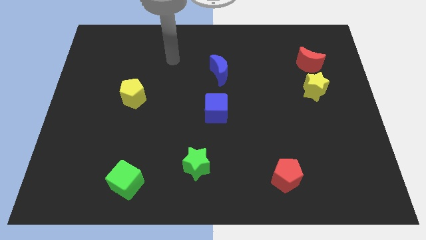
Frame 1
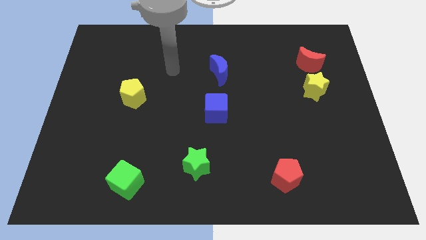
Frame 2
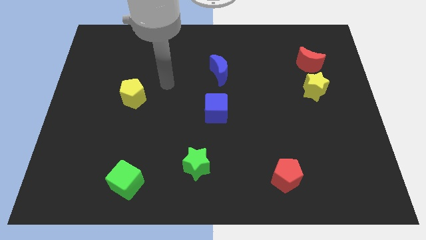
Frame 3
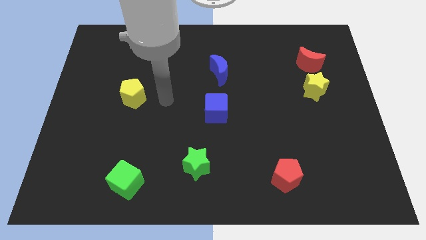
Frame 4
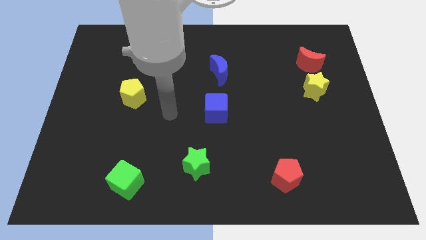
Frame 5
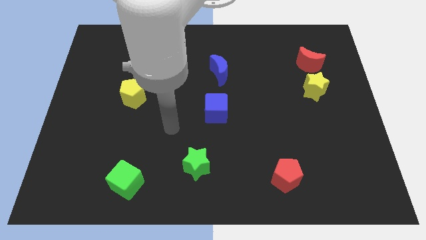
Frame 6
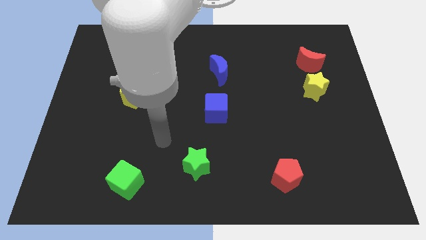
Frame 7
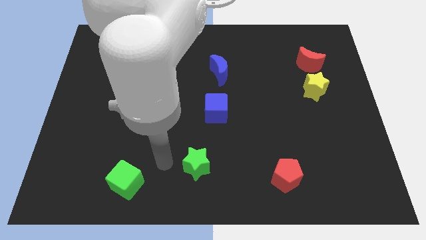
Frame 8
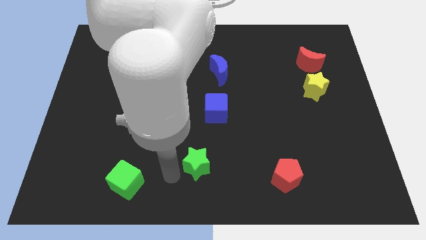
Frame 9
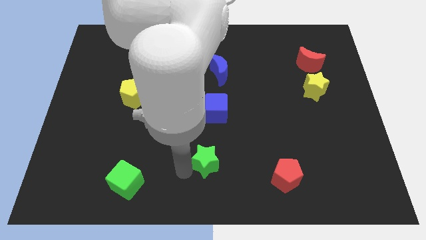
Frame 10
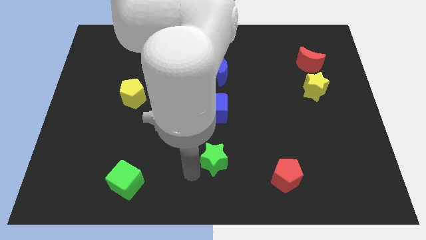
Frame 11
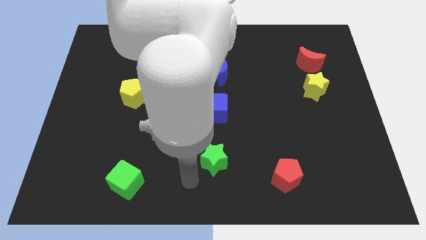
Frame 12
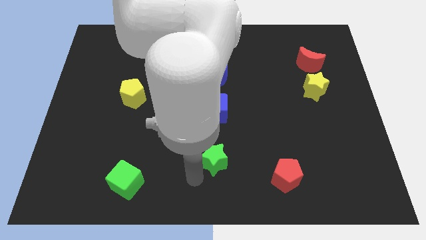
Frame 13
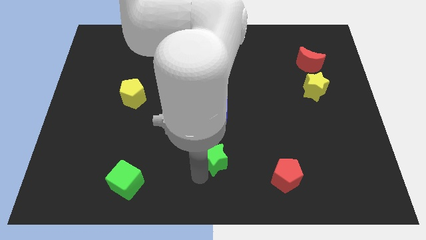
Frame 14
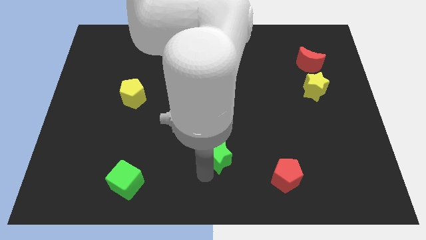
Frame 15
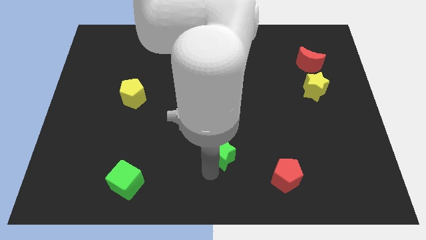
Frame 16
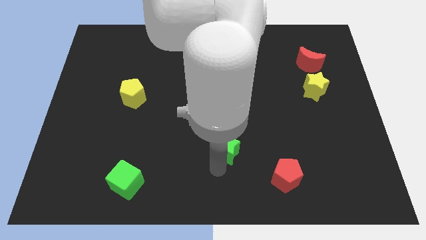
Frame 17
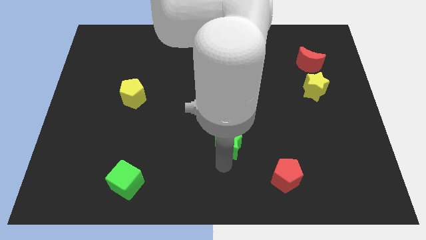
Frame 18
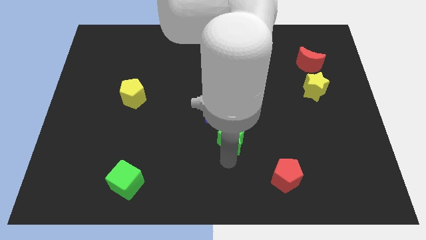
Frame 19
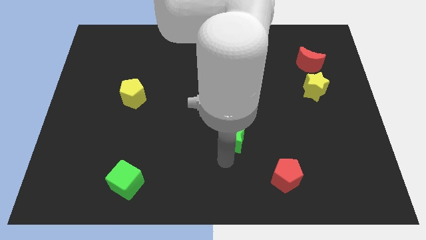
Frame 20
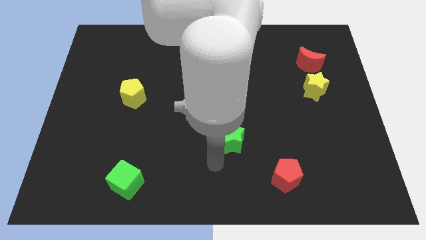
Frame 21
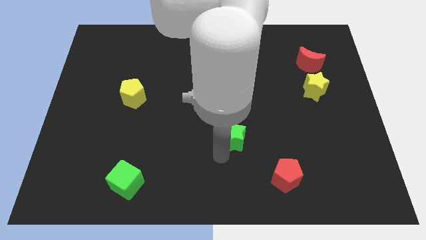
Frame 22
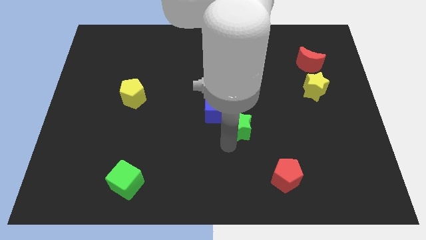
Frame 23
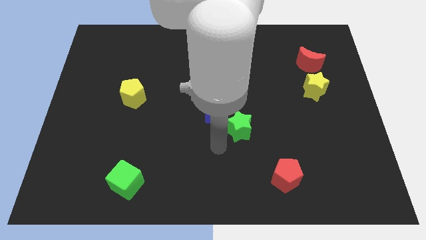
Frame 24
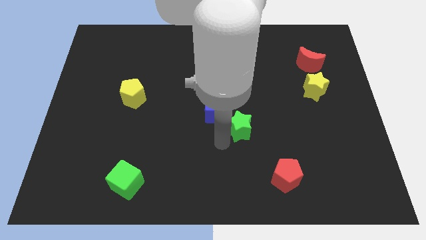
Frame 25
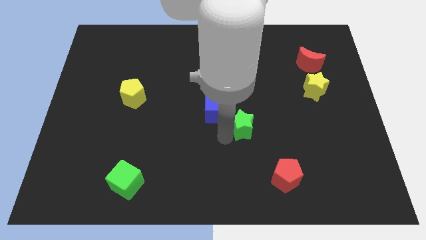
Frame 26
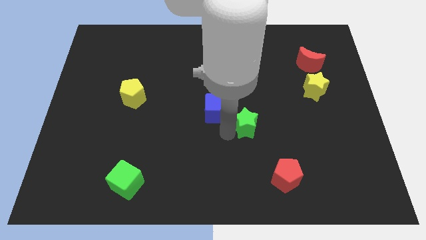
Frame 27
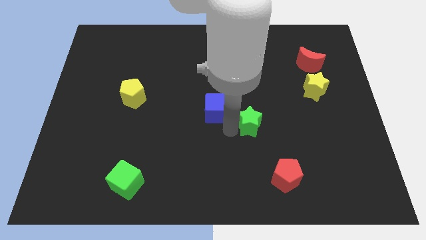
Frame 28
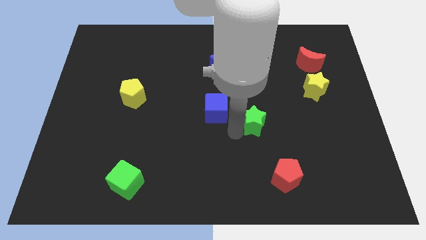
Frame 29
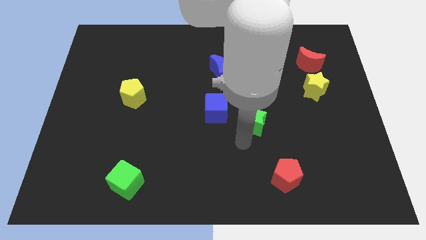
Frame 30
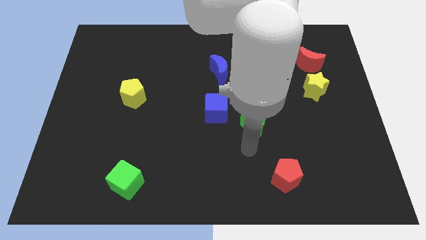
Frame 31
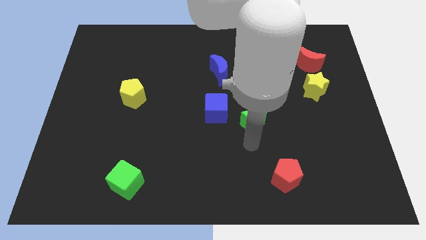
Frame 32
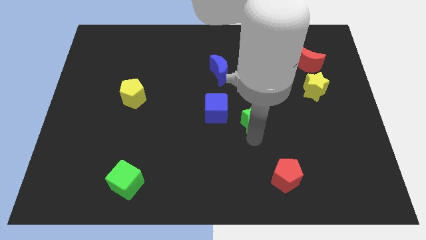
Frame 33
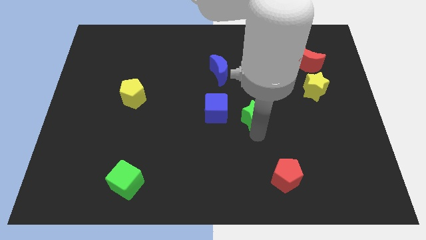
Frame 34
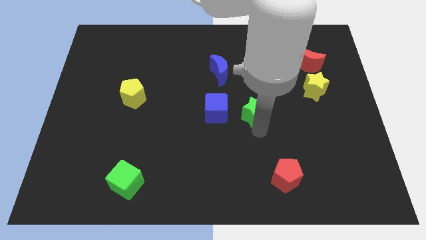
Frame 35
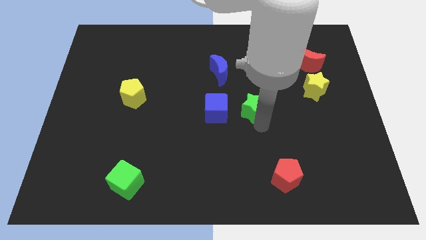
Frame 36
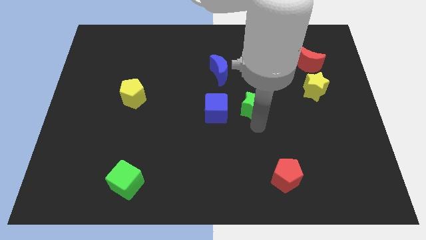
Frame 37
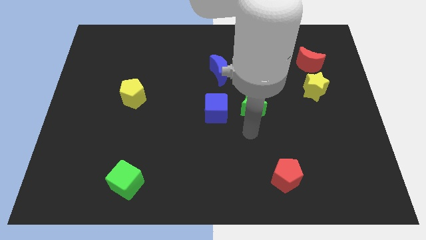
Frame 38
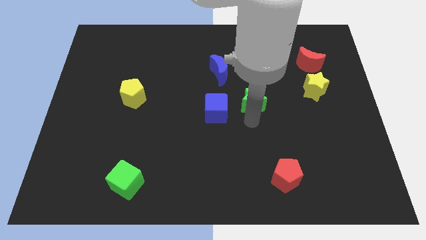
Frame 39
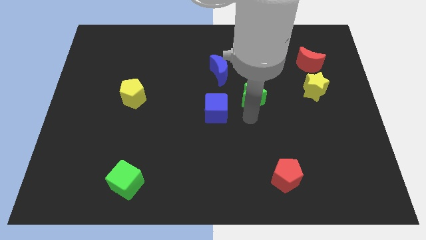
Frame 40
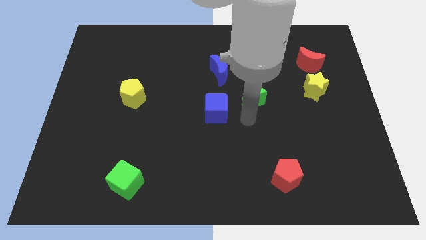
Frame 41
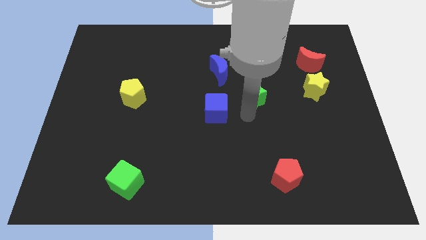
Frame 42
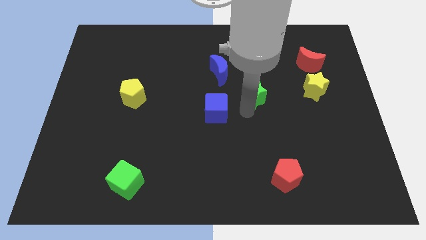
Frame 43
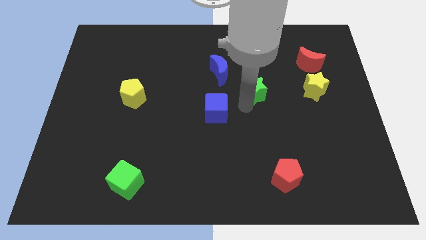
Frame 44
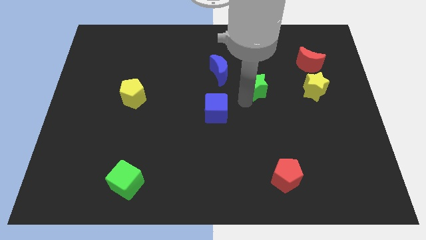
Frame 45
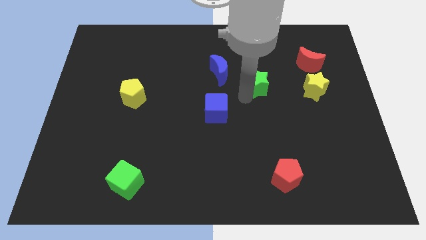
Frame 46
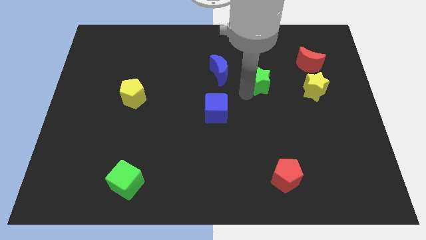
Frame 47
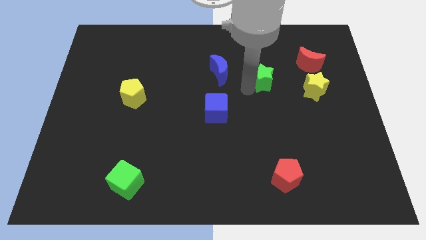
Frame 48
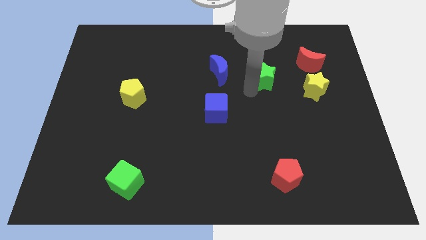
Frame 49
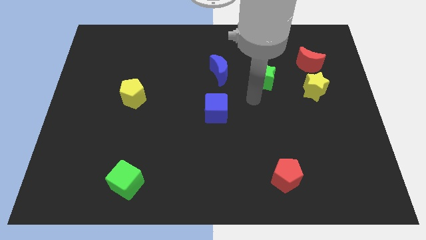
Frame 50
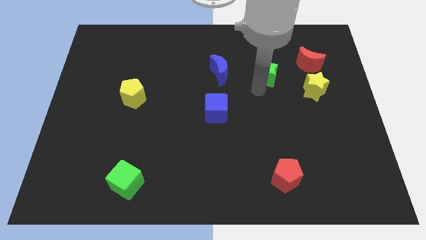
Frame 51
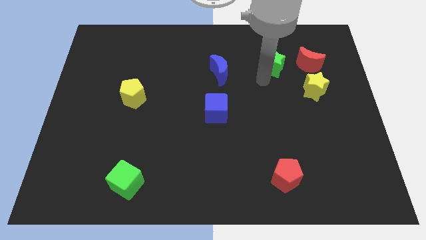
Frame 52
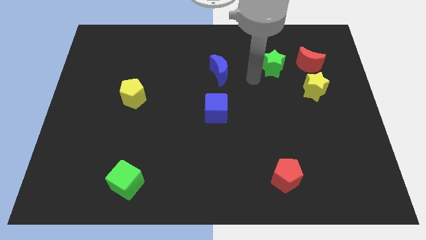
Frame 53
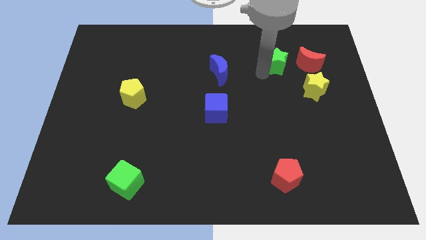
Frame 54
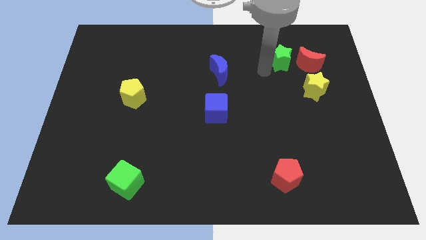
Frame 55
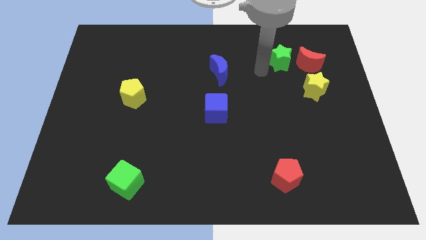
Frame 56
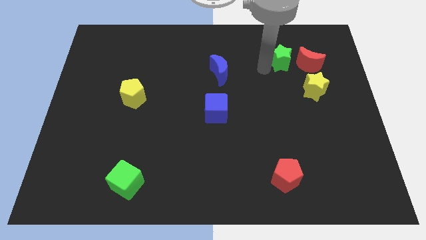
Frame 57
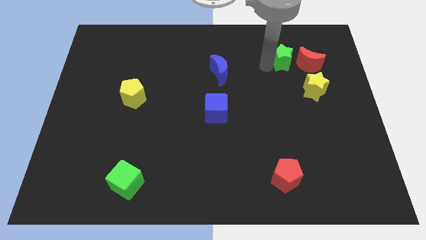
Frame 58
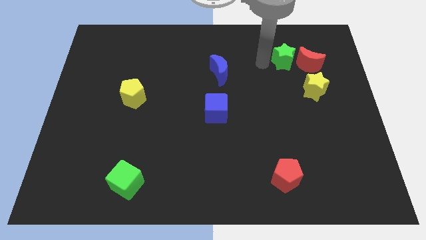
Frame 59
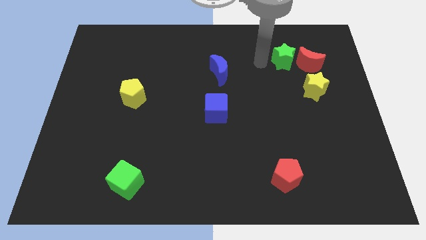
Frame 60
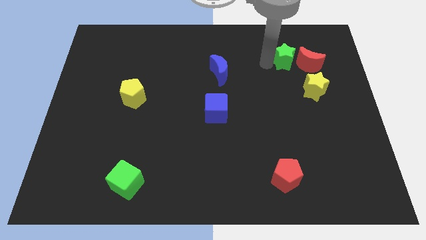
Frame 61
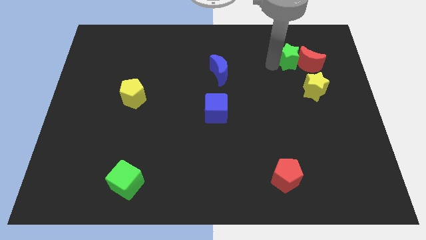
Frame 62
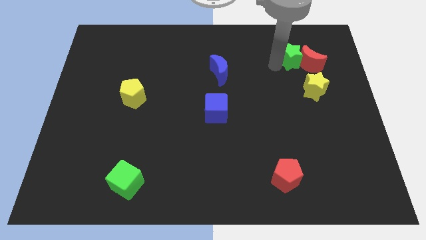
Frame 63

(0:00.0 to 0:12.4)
slide the green star to the top side of the yellow star

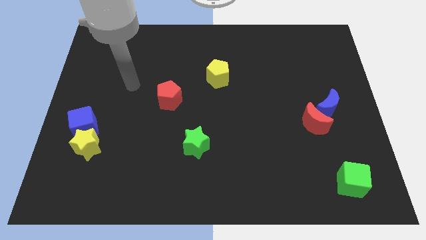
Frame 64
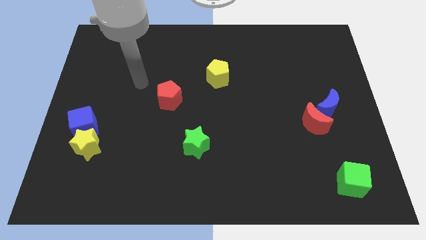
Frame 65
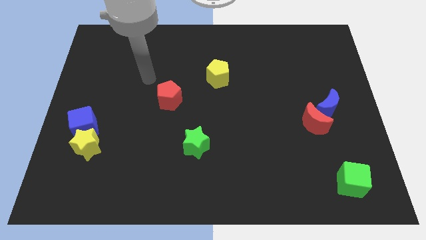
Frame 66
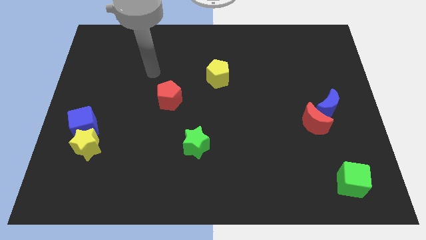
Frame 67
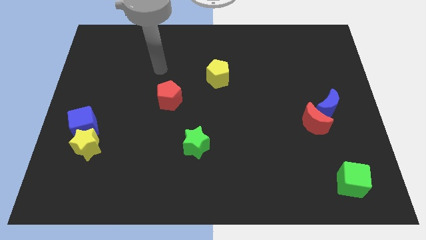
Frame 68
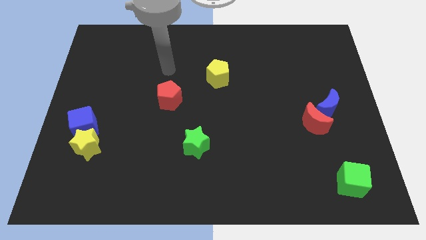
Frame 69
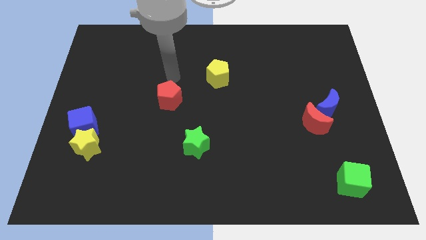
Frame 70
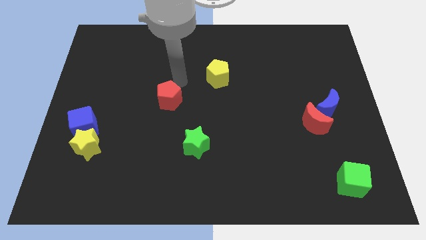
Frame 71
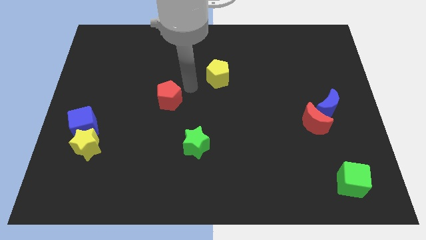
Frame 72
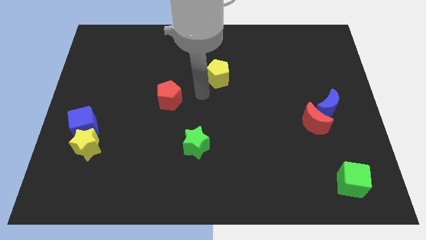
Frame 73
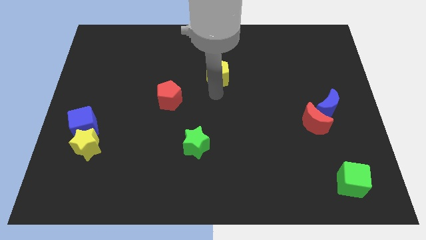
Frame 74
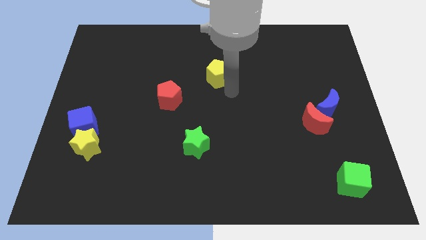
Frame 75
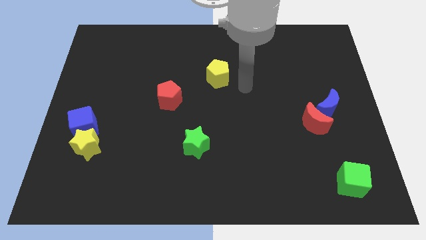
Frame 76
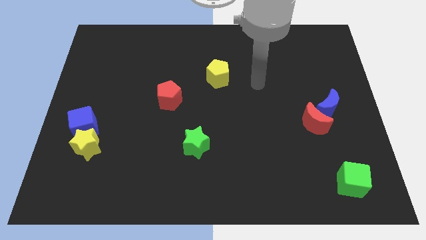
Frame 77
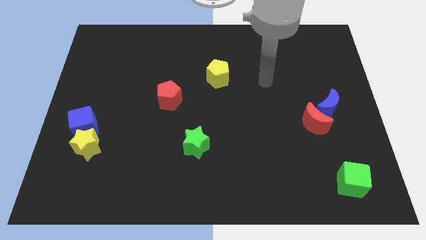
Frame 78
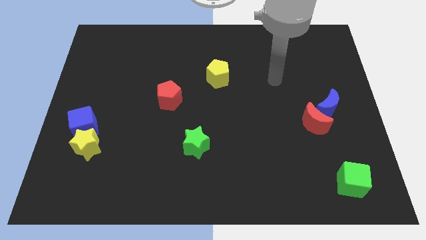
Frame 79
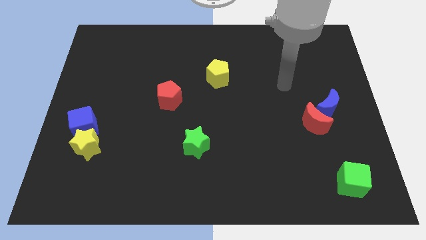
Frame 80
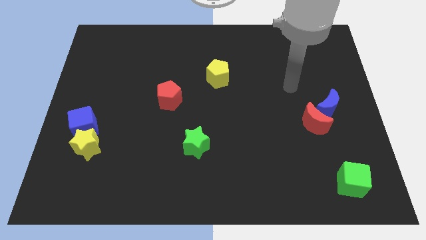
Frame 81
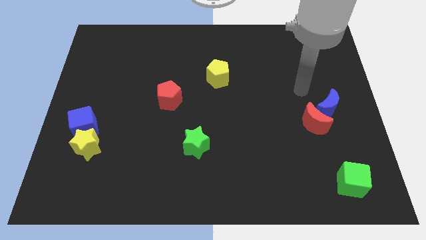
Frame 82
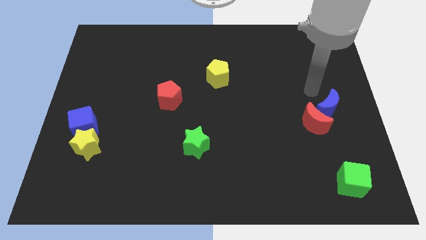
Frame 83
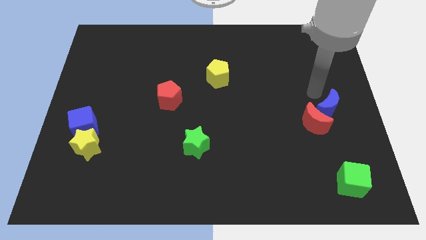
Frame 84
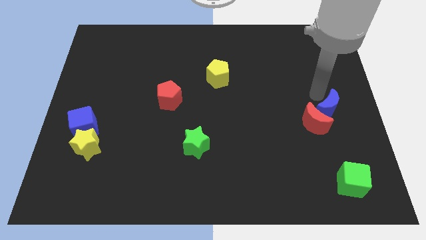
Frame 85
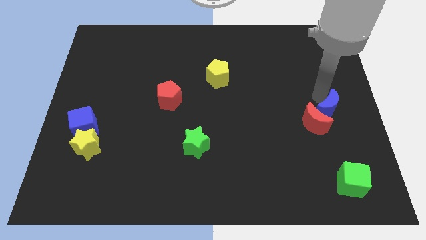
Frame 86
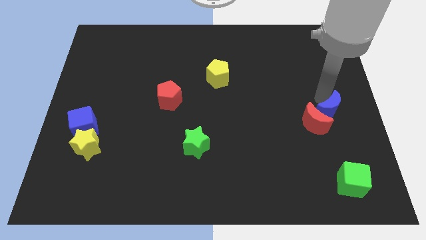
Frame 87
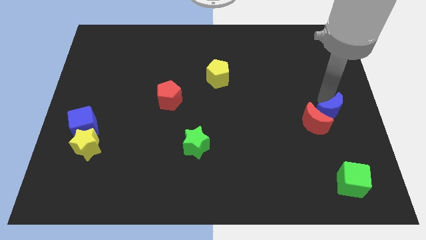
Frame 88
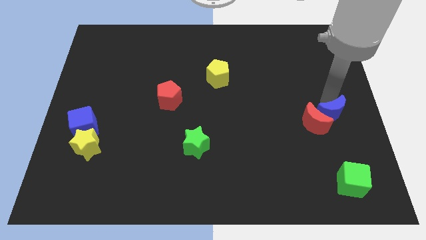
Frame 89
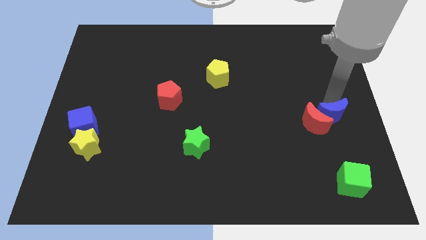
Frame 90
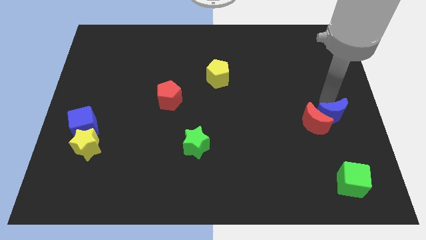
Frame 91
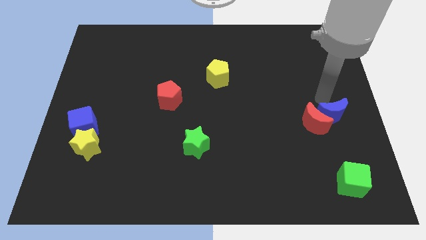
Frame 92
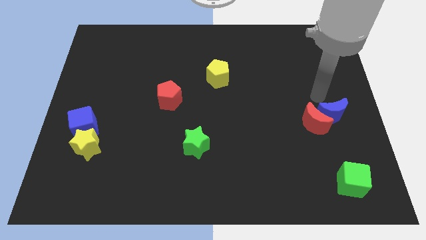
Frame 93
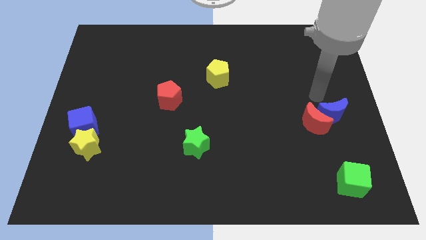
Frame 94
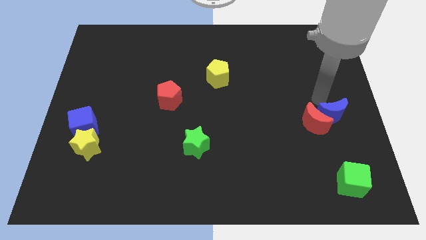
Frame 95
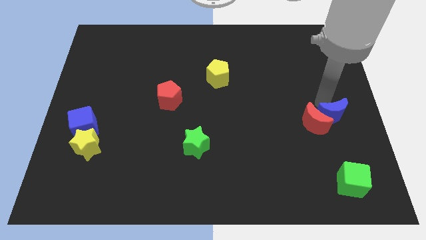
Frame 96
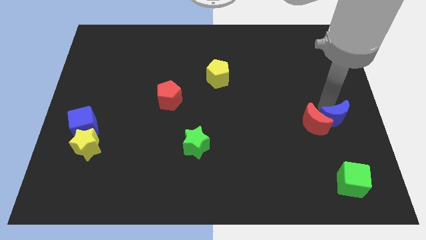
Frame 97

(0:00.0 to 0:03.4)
move the blue moon to the bottom right side of the red moon
